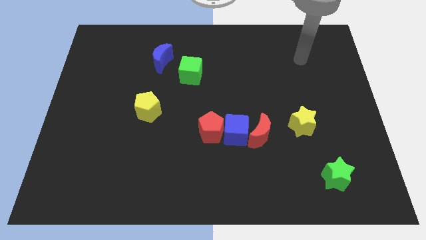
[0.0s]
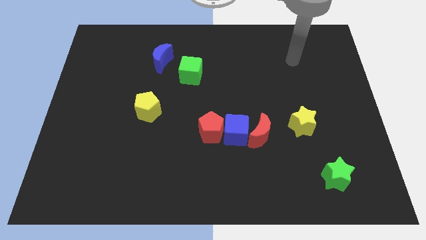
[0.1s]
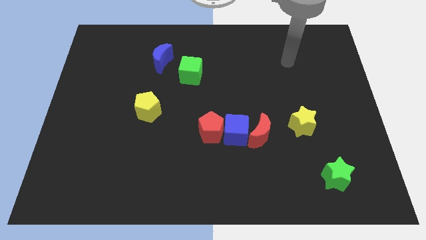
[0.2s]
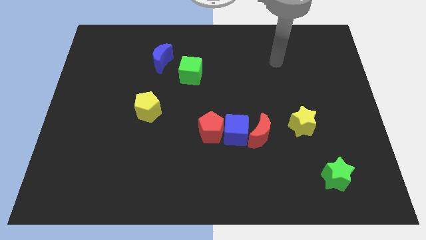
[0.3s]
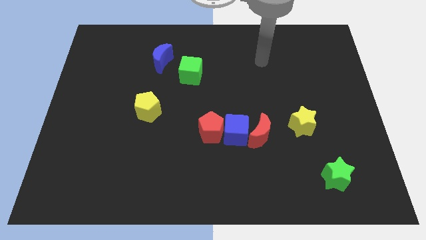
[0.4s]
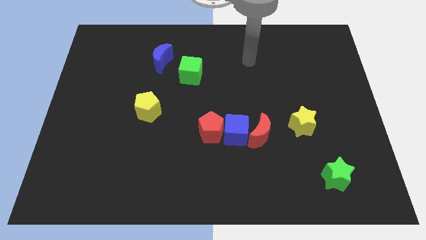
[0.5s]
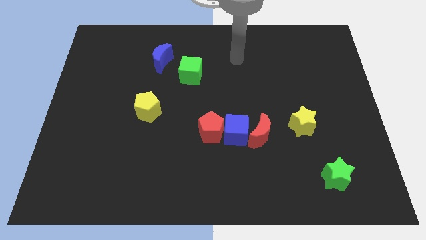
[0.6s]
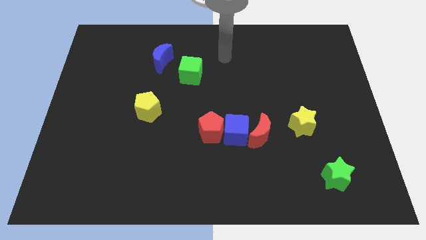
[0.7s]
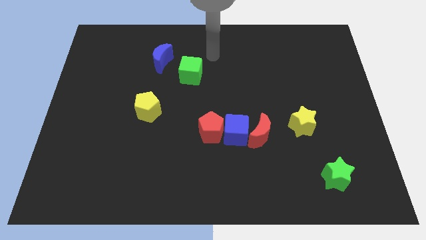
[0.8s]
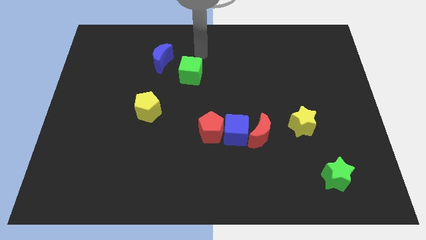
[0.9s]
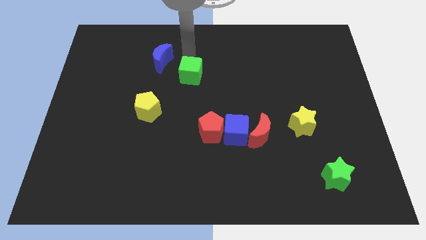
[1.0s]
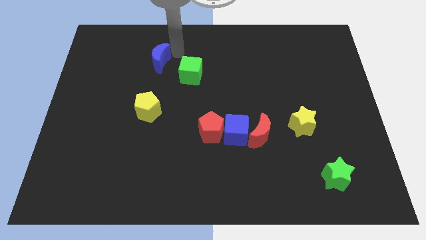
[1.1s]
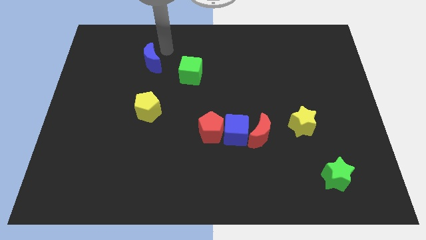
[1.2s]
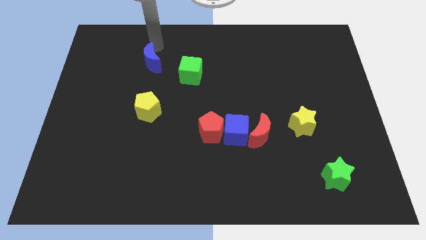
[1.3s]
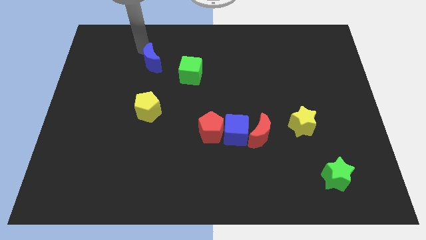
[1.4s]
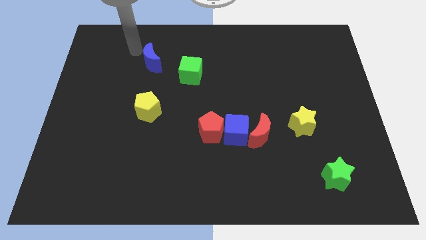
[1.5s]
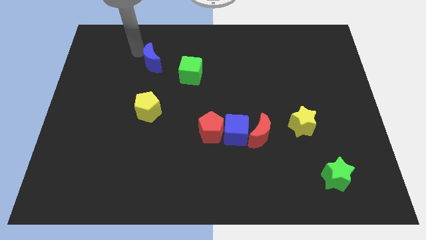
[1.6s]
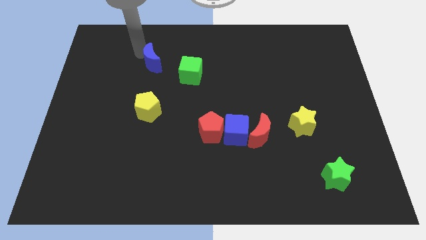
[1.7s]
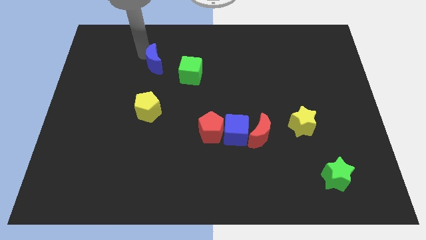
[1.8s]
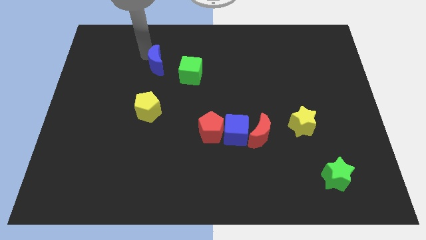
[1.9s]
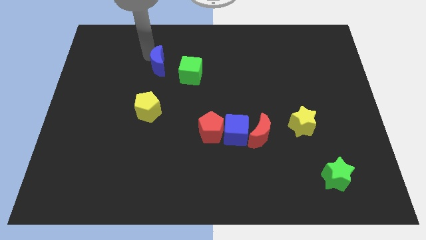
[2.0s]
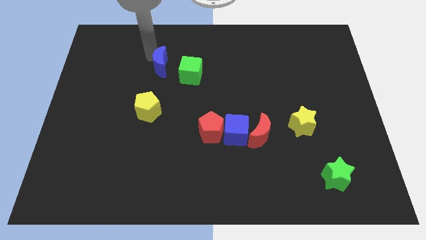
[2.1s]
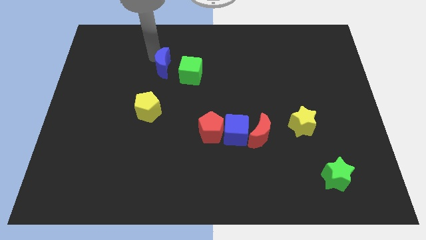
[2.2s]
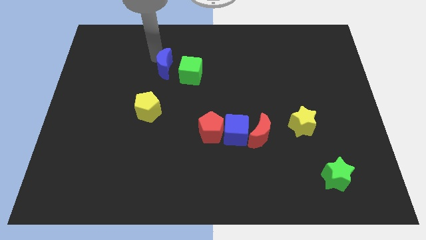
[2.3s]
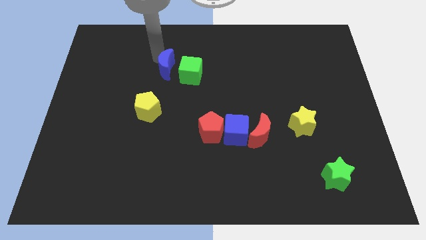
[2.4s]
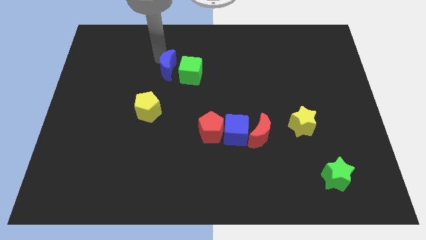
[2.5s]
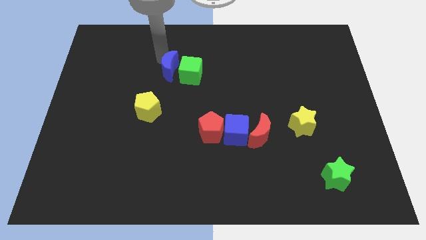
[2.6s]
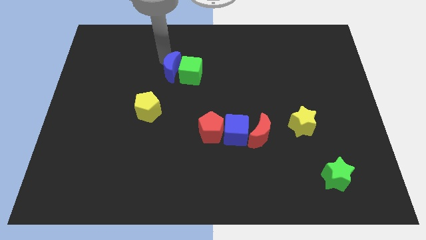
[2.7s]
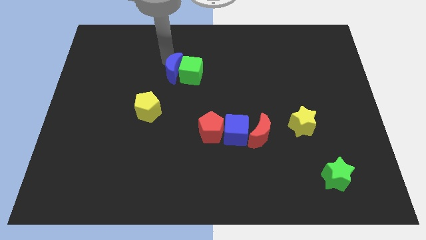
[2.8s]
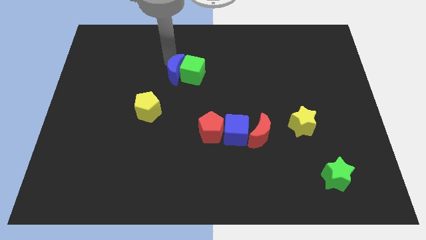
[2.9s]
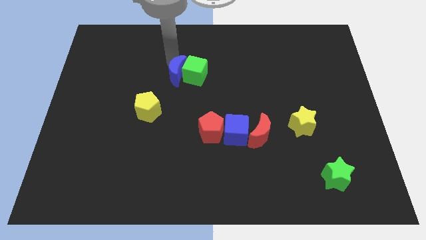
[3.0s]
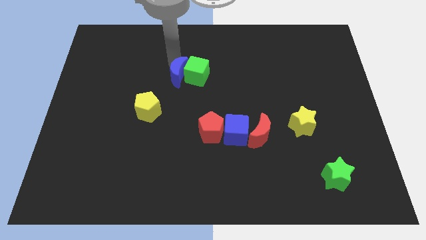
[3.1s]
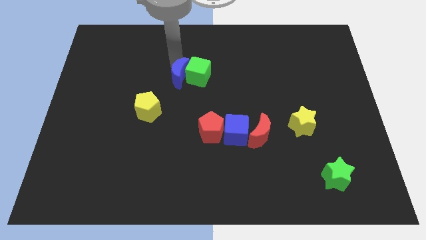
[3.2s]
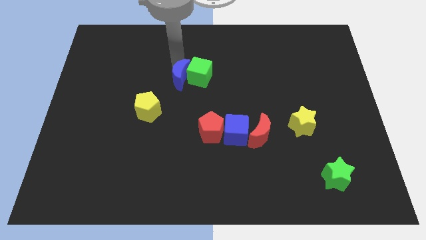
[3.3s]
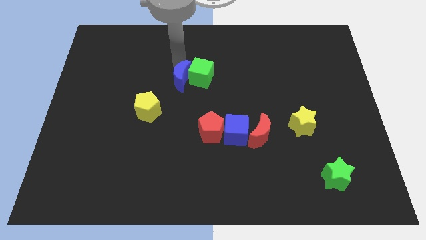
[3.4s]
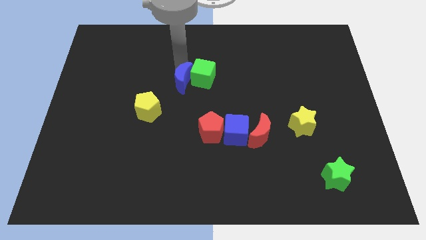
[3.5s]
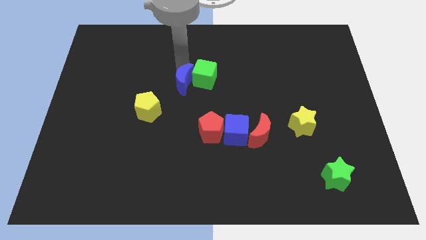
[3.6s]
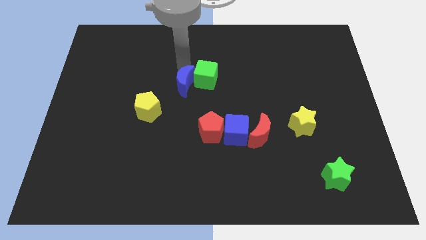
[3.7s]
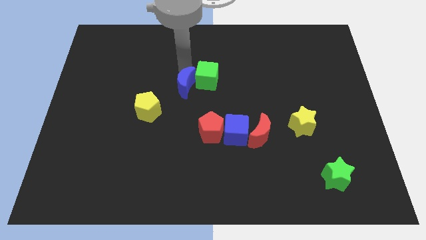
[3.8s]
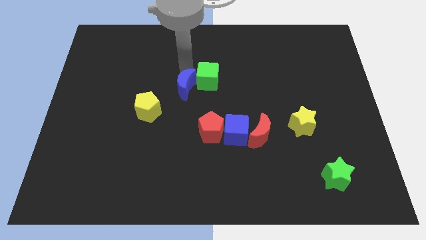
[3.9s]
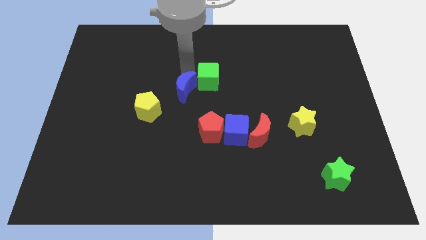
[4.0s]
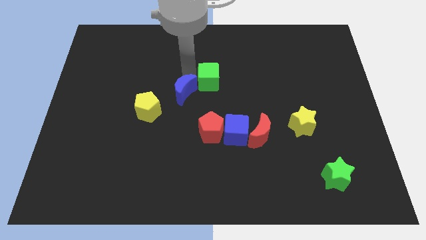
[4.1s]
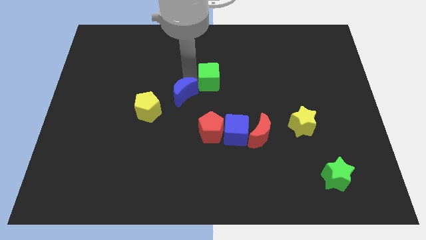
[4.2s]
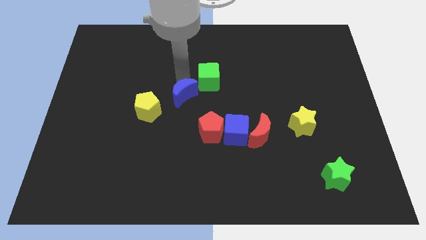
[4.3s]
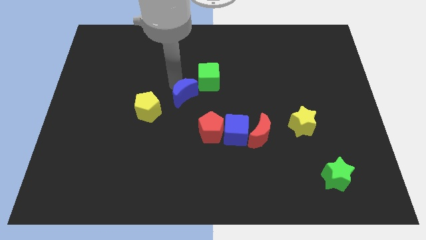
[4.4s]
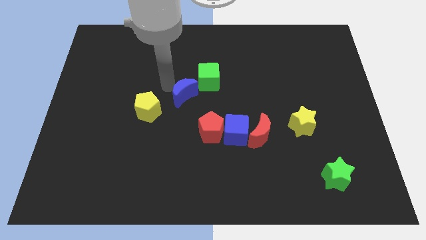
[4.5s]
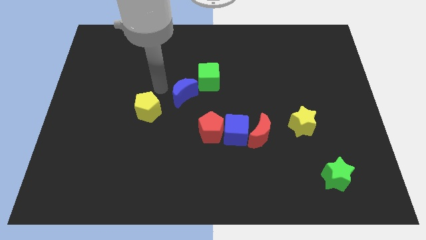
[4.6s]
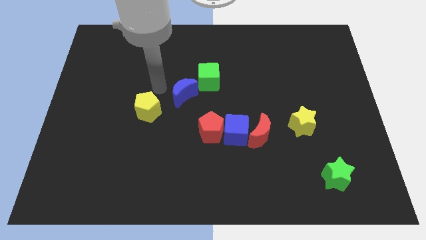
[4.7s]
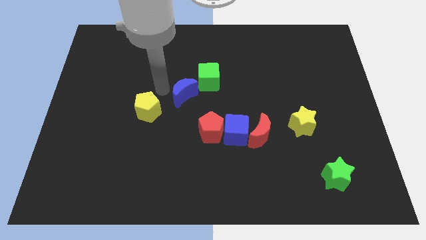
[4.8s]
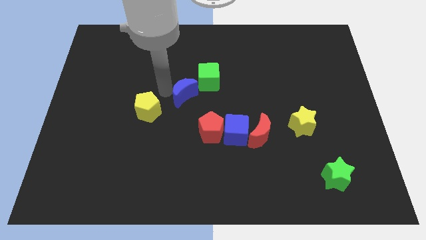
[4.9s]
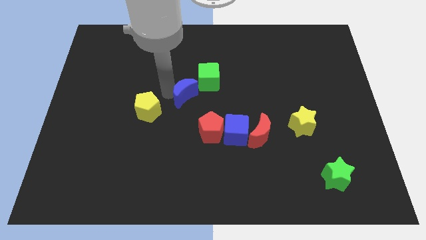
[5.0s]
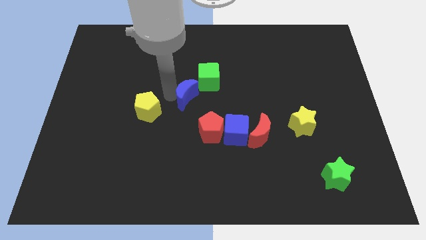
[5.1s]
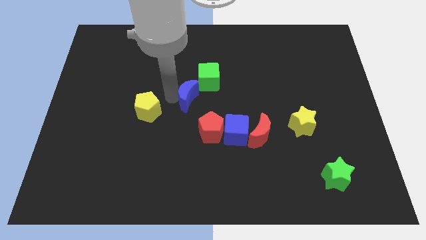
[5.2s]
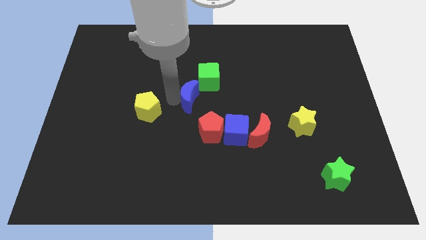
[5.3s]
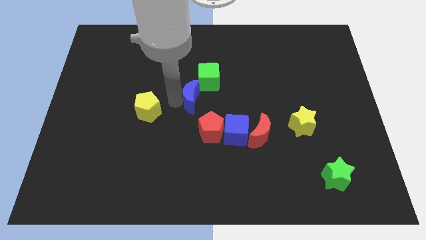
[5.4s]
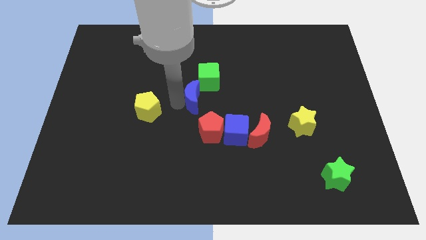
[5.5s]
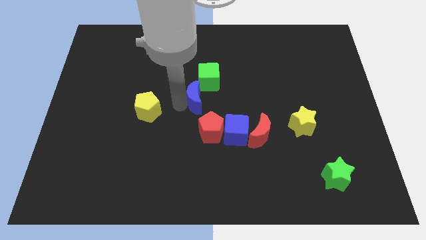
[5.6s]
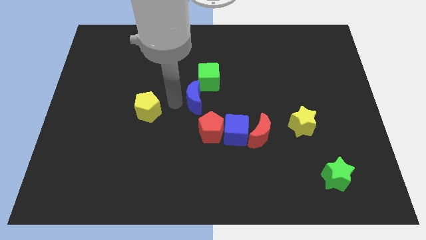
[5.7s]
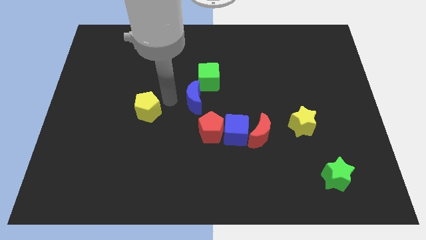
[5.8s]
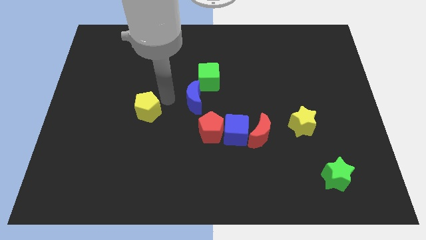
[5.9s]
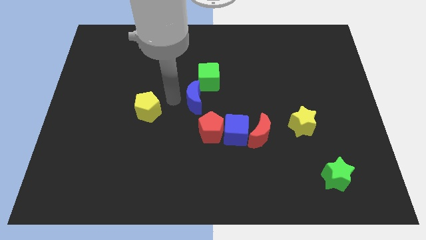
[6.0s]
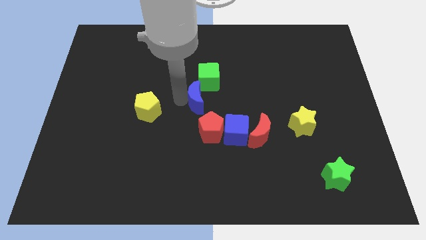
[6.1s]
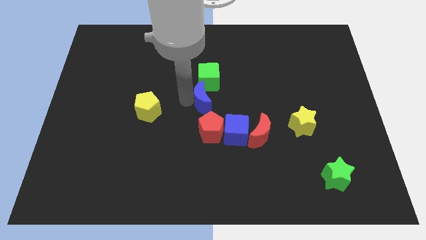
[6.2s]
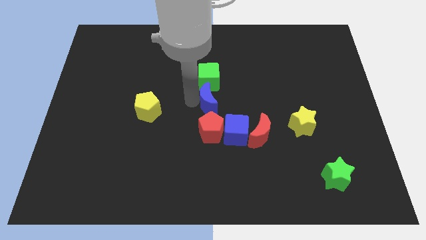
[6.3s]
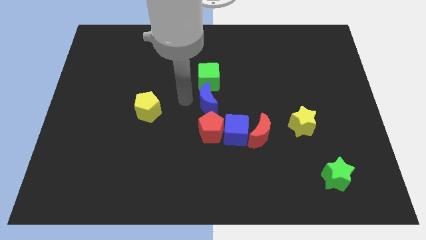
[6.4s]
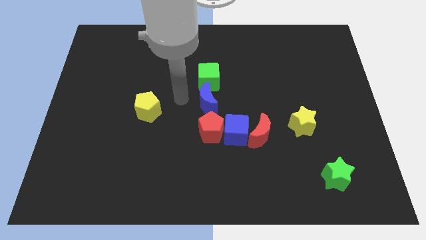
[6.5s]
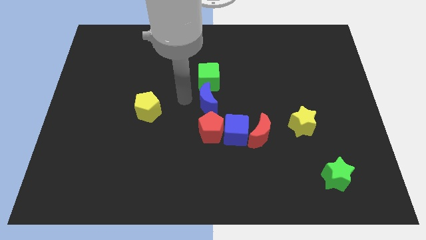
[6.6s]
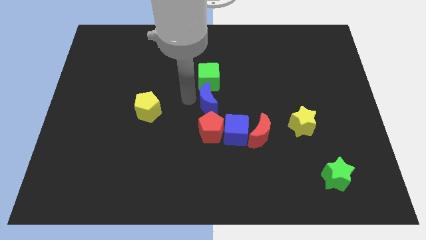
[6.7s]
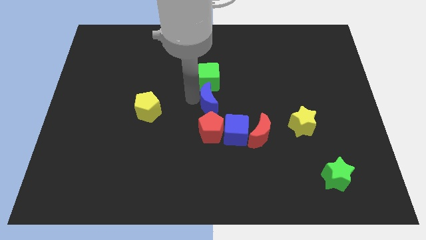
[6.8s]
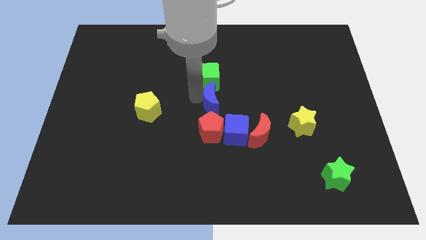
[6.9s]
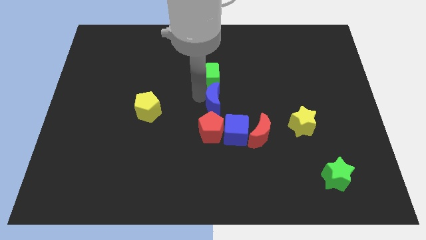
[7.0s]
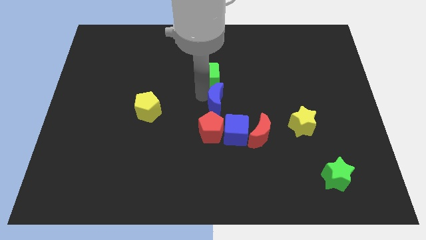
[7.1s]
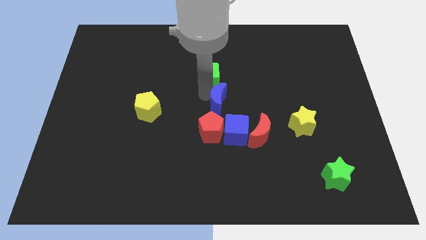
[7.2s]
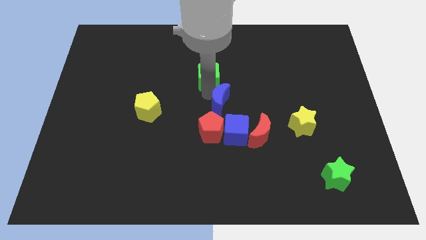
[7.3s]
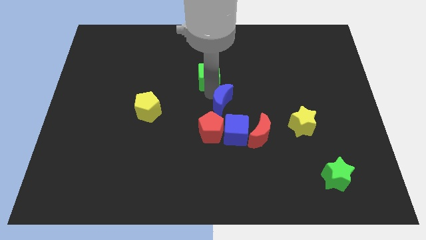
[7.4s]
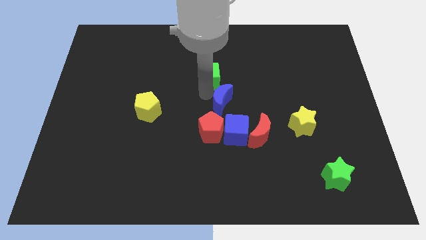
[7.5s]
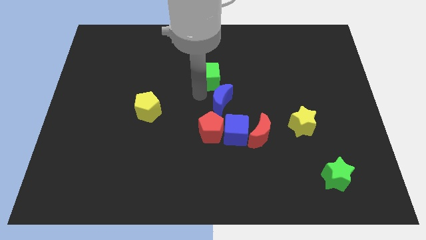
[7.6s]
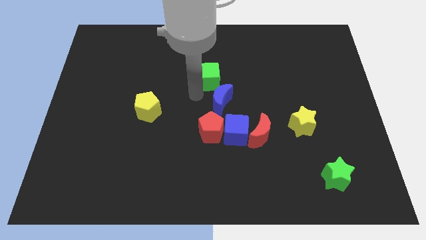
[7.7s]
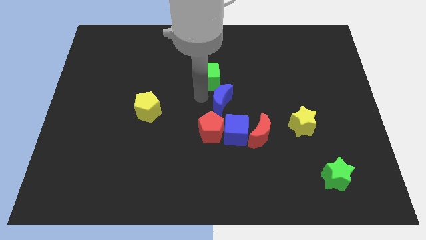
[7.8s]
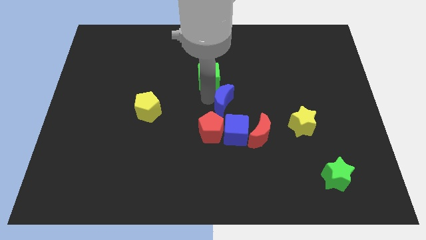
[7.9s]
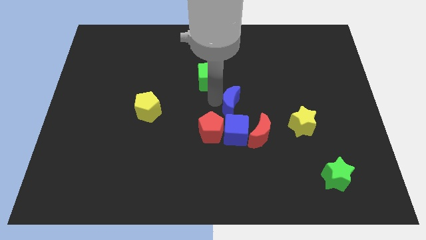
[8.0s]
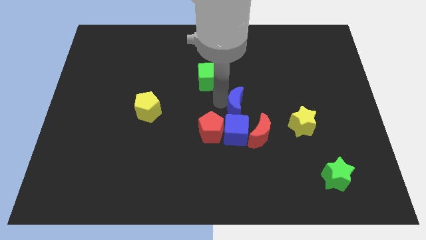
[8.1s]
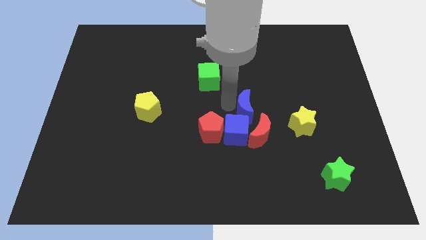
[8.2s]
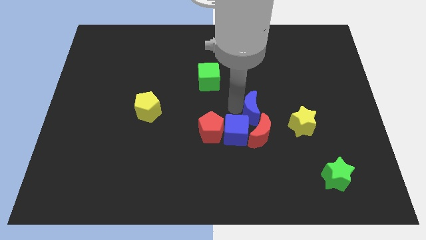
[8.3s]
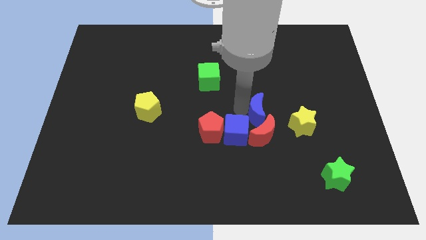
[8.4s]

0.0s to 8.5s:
put the blue moon to the right side of the red pentagon
